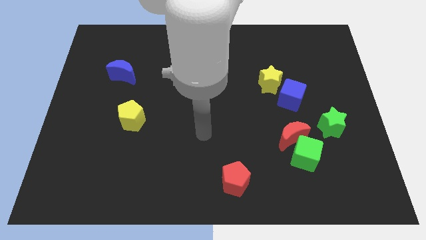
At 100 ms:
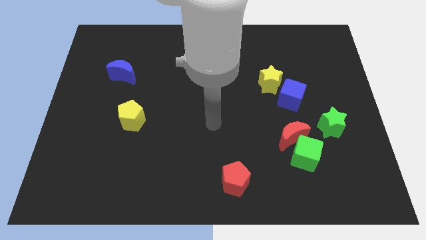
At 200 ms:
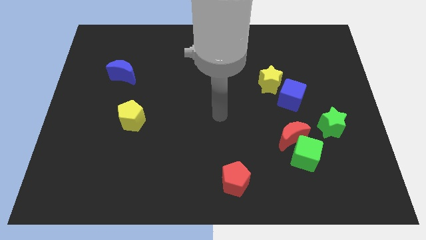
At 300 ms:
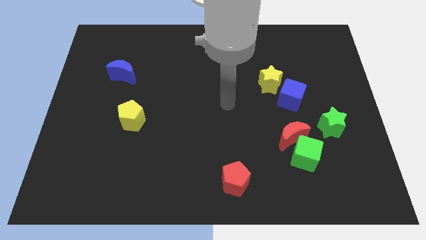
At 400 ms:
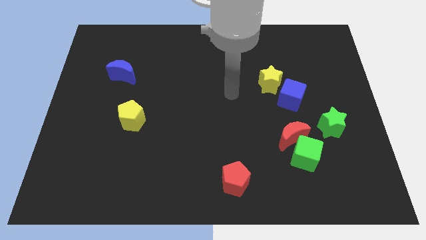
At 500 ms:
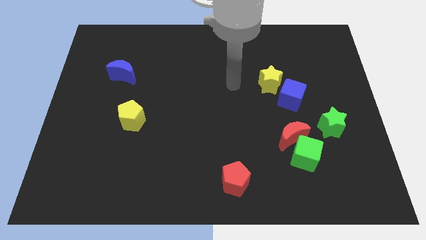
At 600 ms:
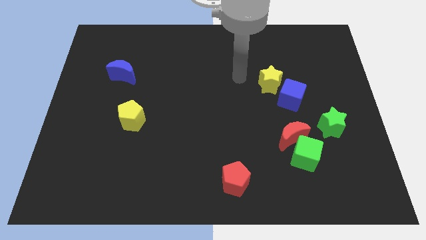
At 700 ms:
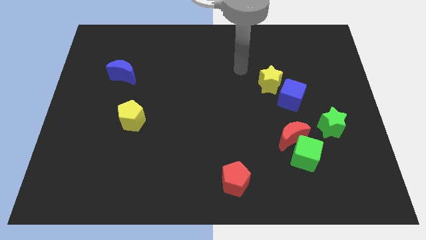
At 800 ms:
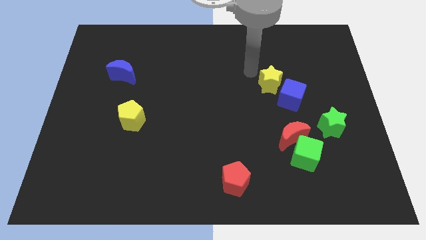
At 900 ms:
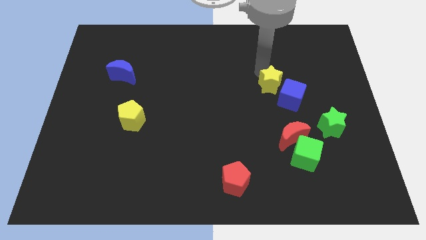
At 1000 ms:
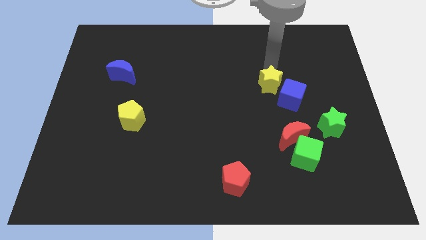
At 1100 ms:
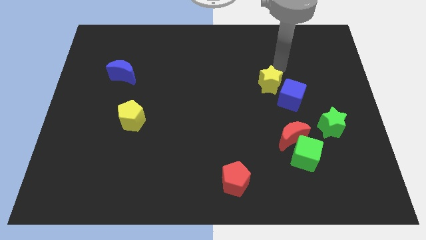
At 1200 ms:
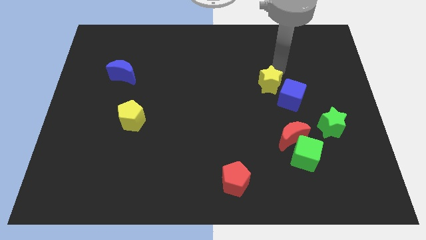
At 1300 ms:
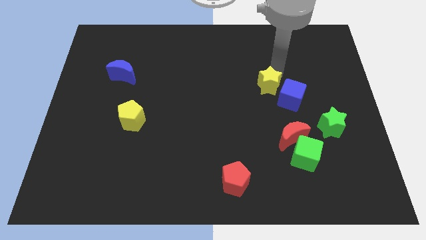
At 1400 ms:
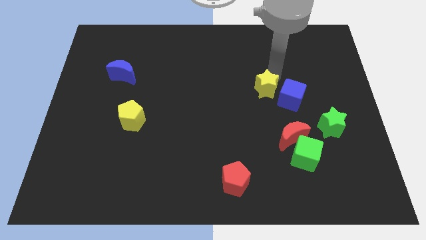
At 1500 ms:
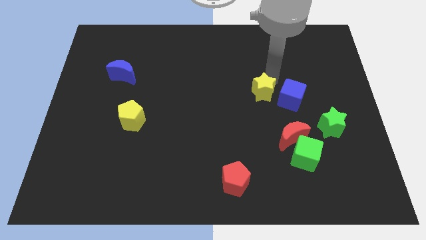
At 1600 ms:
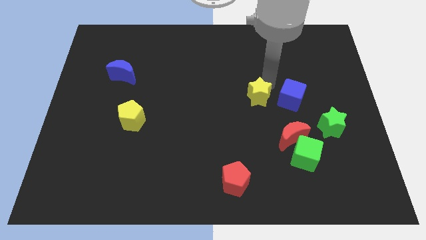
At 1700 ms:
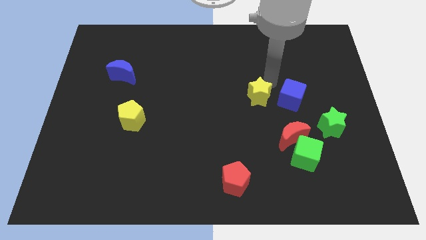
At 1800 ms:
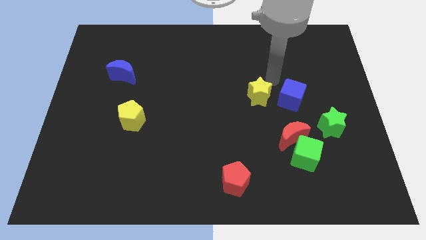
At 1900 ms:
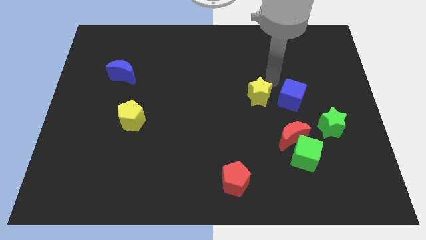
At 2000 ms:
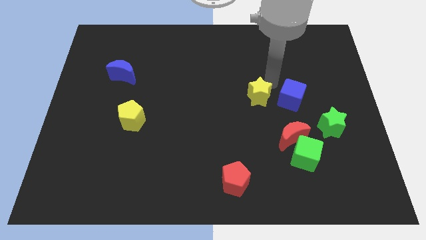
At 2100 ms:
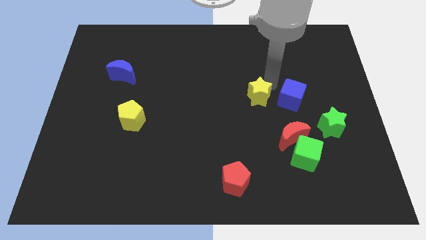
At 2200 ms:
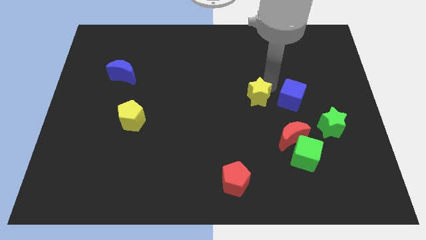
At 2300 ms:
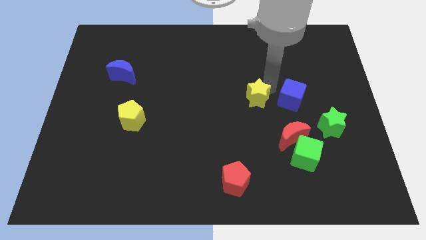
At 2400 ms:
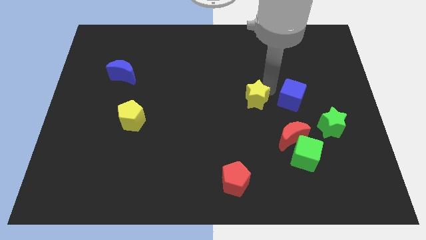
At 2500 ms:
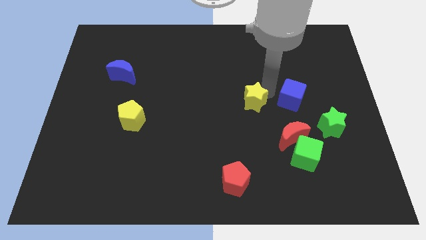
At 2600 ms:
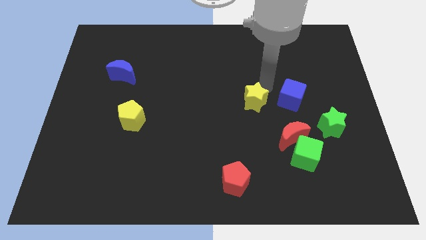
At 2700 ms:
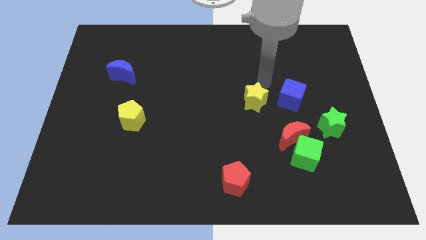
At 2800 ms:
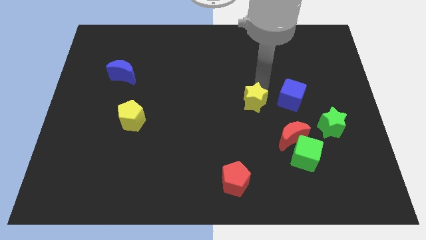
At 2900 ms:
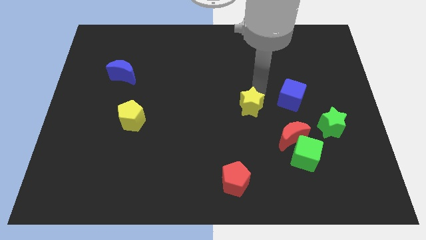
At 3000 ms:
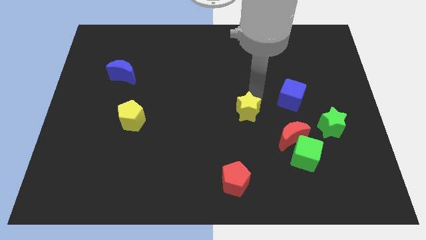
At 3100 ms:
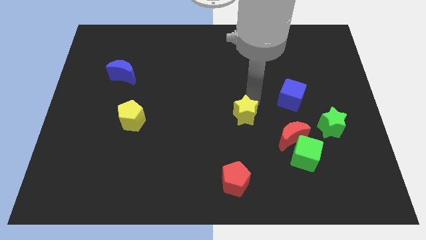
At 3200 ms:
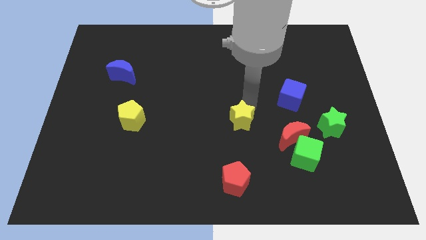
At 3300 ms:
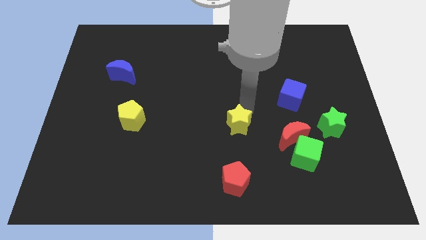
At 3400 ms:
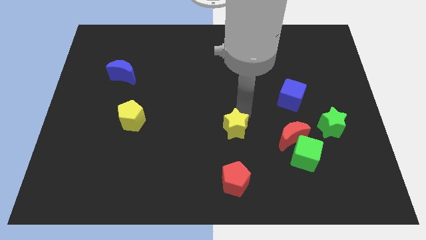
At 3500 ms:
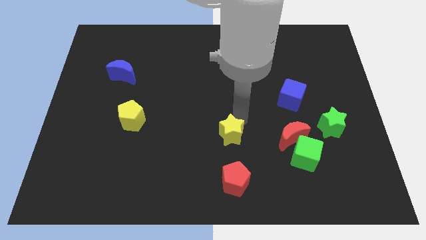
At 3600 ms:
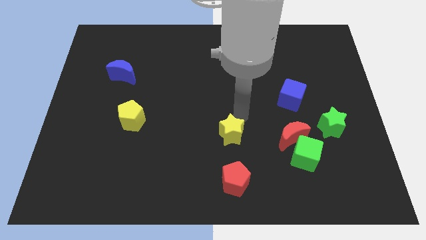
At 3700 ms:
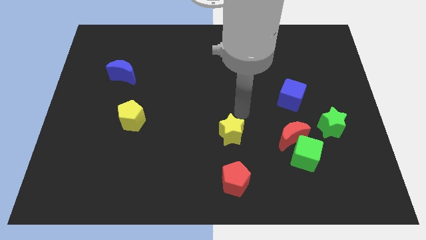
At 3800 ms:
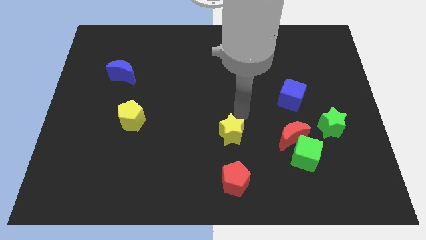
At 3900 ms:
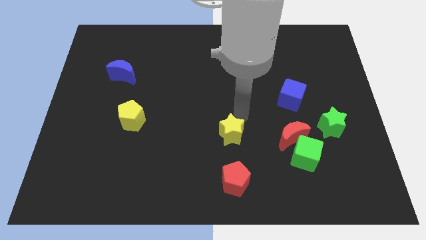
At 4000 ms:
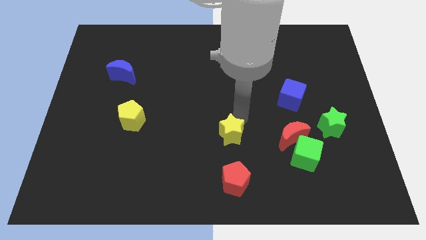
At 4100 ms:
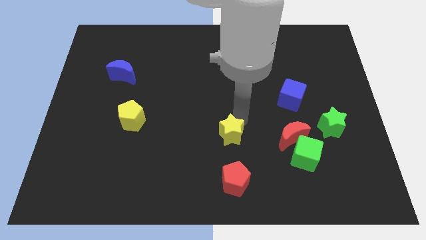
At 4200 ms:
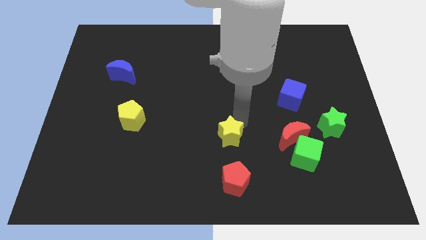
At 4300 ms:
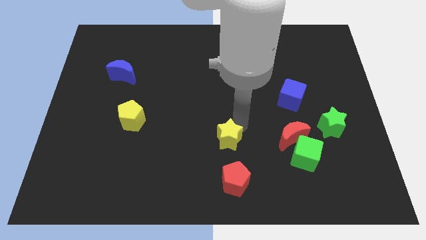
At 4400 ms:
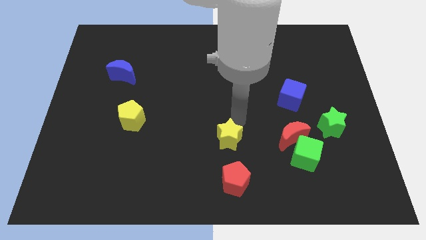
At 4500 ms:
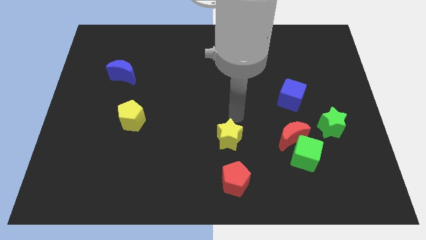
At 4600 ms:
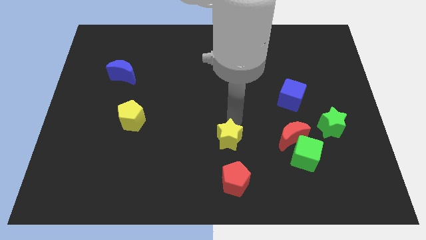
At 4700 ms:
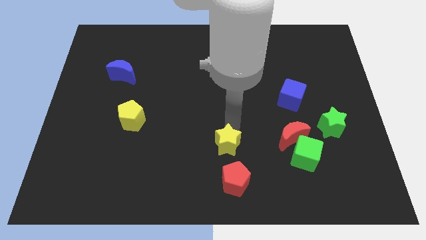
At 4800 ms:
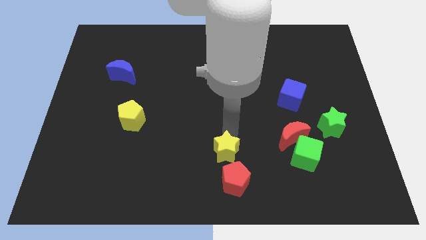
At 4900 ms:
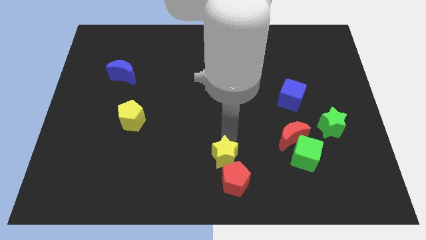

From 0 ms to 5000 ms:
move the yellow star to the bottom

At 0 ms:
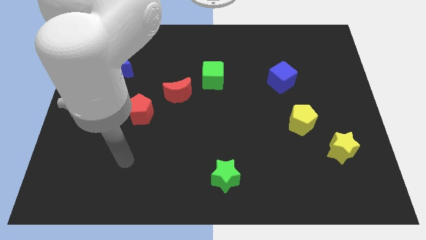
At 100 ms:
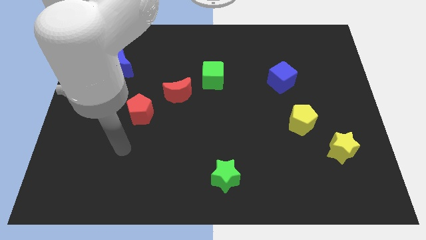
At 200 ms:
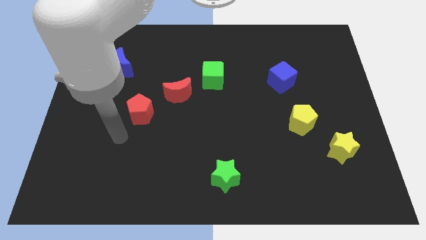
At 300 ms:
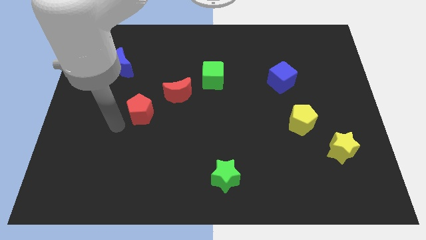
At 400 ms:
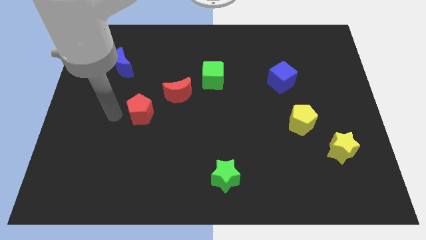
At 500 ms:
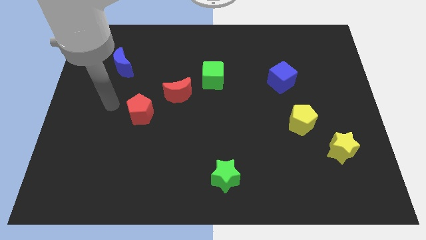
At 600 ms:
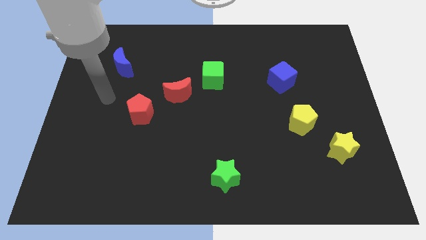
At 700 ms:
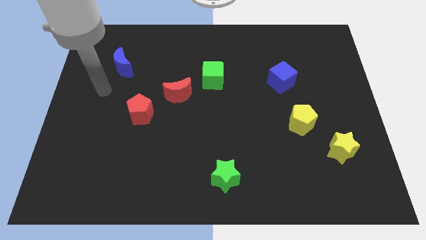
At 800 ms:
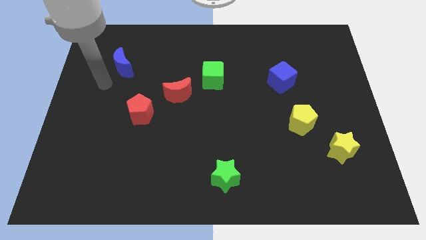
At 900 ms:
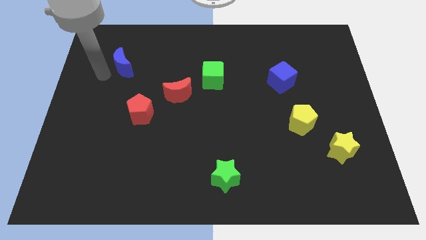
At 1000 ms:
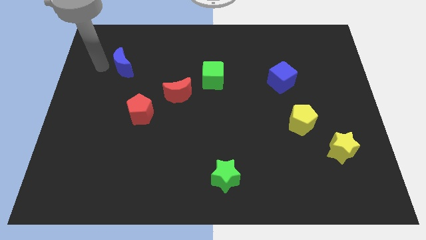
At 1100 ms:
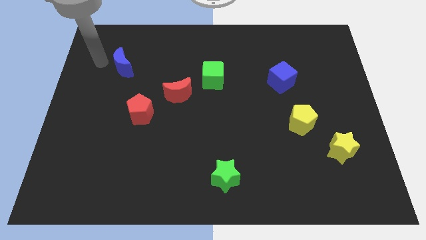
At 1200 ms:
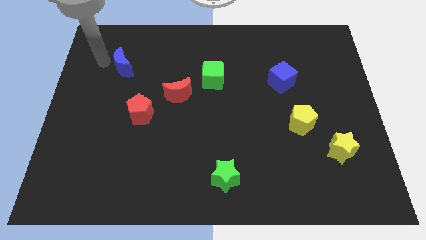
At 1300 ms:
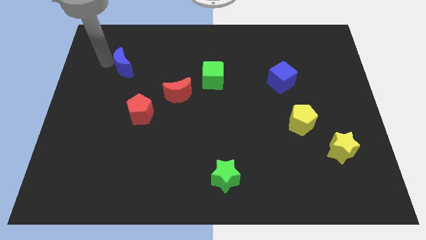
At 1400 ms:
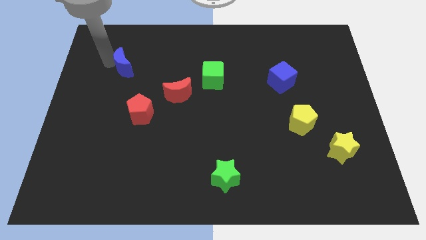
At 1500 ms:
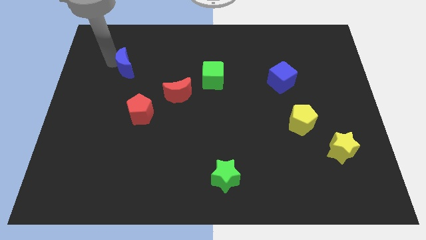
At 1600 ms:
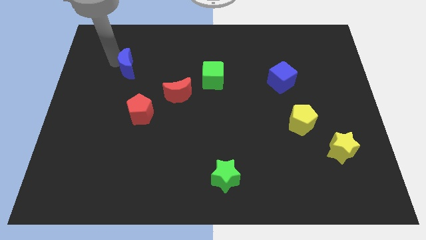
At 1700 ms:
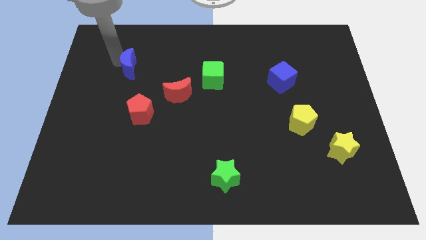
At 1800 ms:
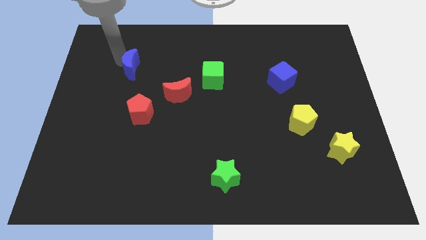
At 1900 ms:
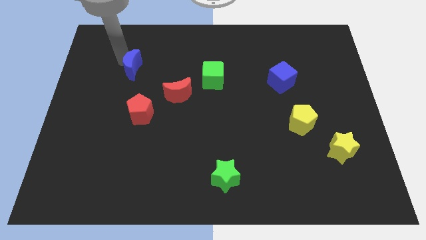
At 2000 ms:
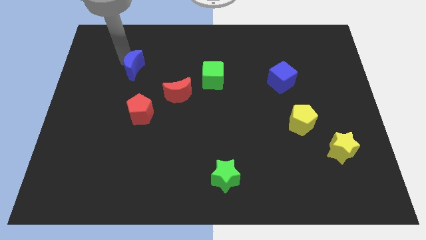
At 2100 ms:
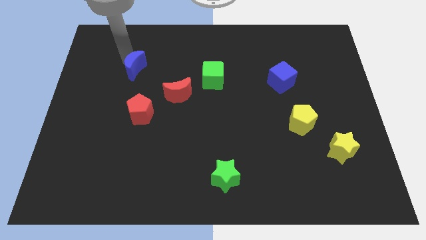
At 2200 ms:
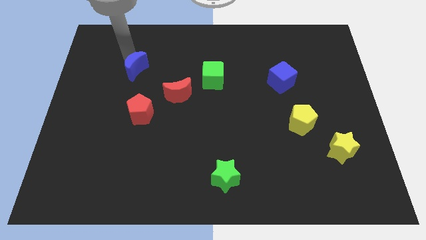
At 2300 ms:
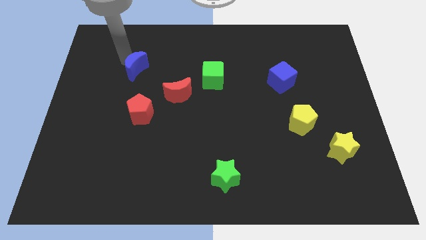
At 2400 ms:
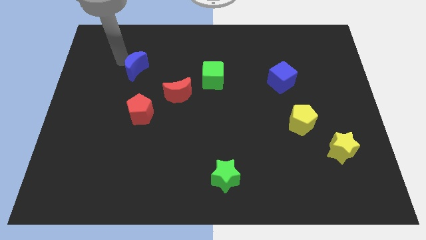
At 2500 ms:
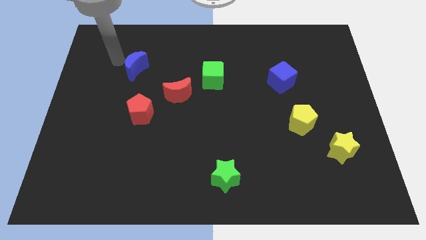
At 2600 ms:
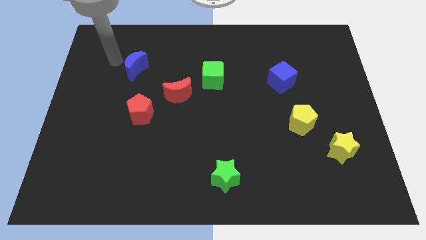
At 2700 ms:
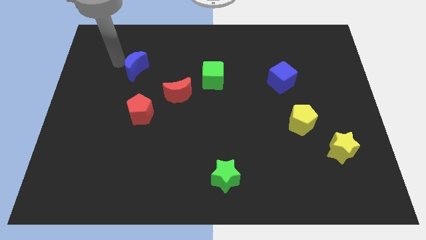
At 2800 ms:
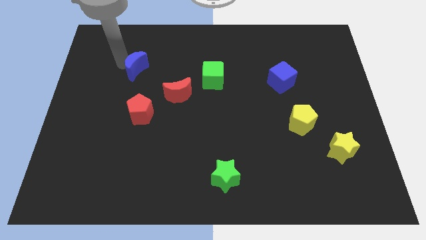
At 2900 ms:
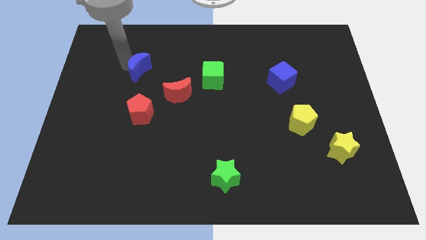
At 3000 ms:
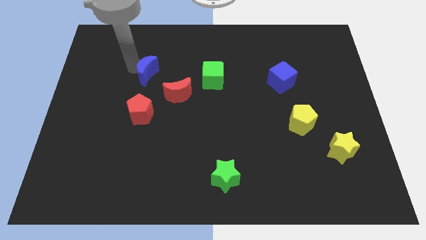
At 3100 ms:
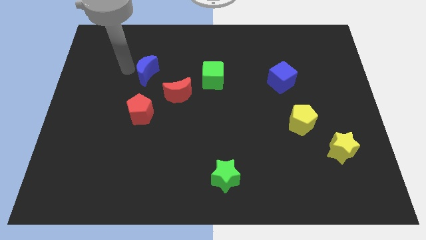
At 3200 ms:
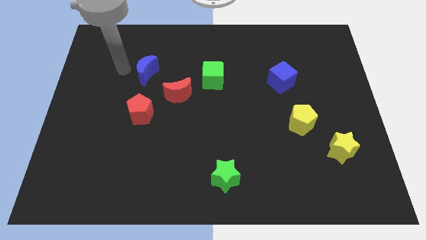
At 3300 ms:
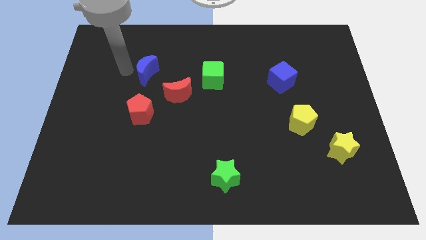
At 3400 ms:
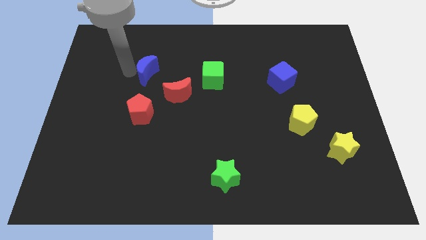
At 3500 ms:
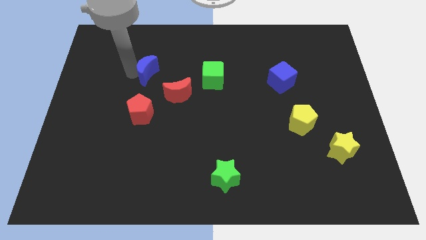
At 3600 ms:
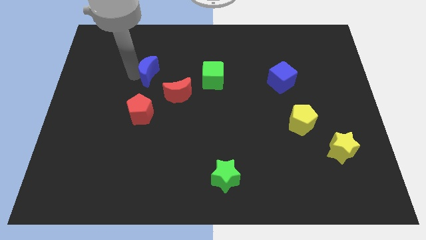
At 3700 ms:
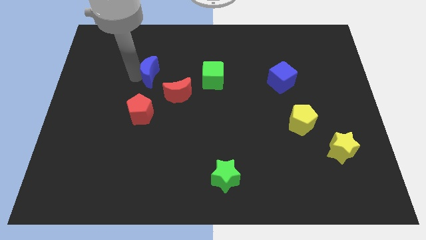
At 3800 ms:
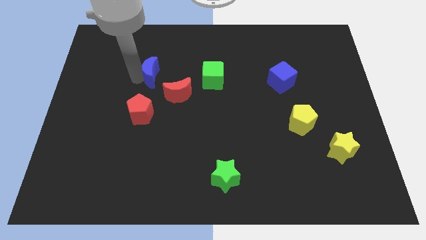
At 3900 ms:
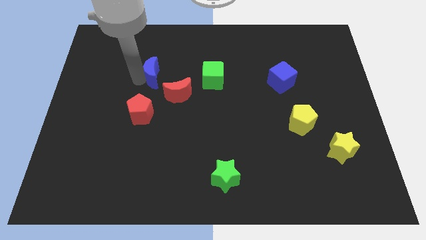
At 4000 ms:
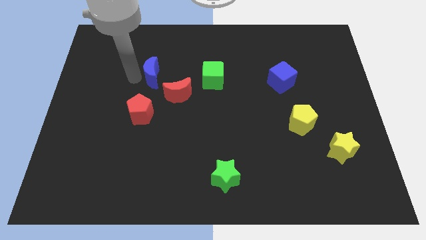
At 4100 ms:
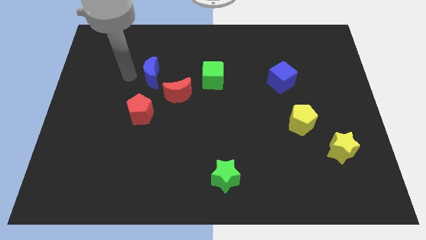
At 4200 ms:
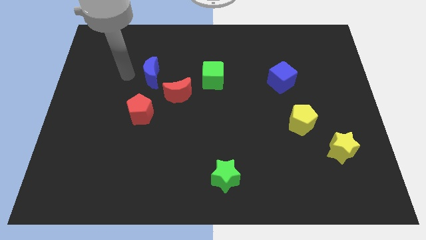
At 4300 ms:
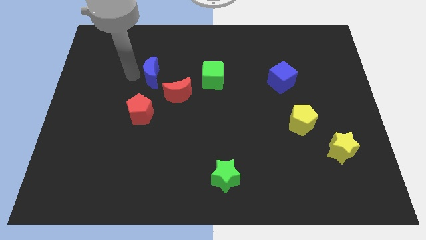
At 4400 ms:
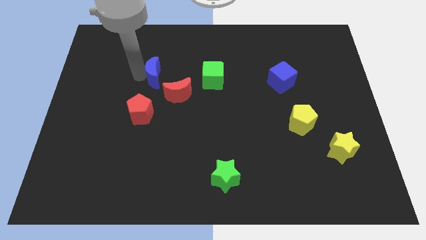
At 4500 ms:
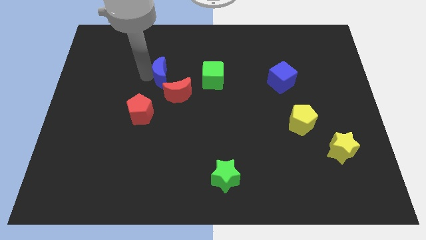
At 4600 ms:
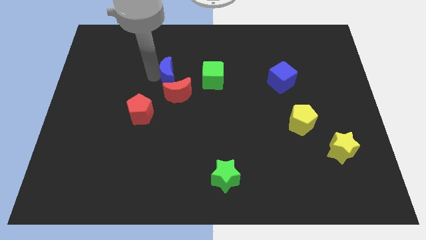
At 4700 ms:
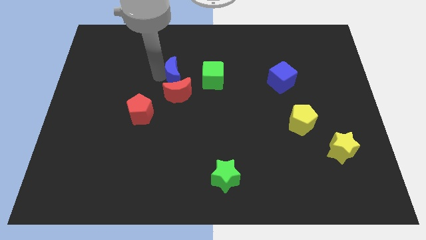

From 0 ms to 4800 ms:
push the blue moon to the center
